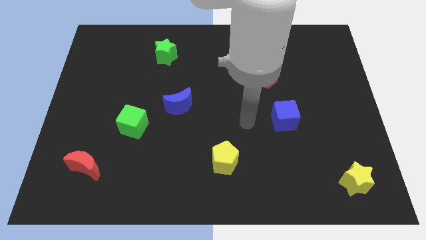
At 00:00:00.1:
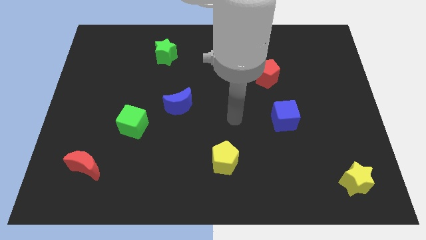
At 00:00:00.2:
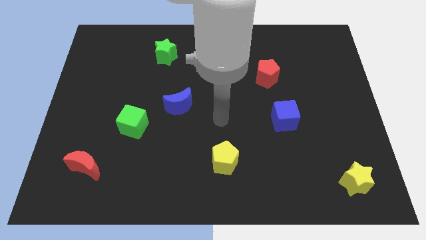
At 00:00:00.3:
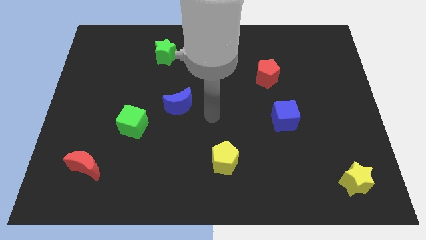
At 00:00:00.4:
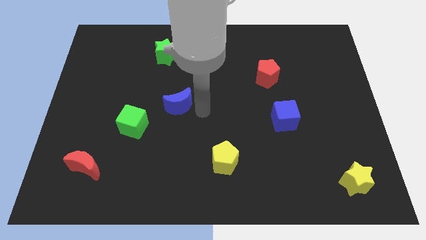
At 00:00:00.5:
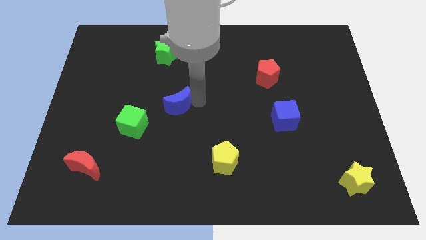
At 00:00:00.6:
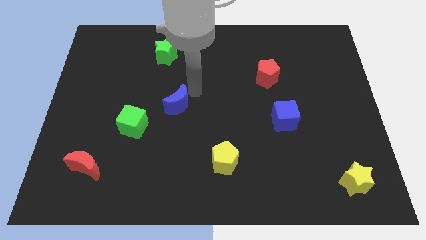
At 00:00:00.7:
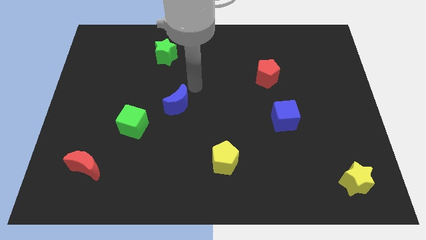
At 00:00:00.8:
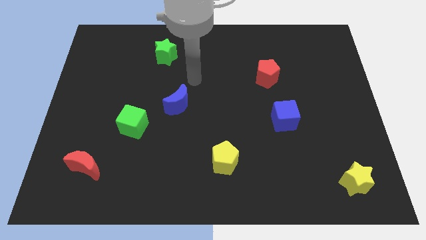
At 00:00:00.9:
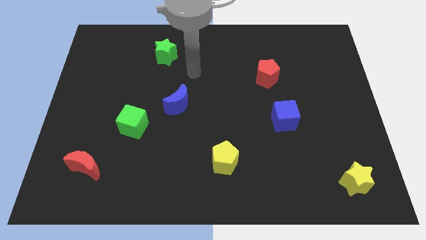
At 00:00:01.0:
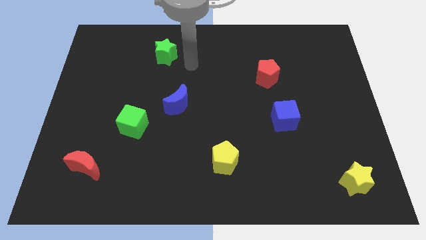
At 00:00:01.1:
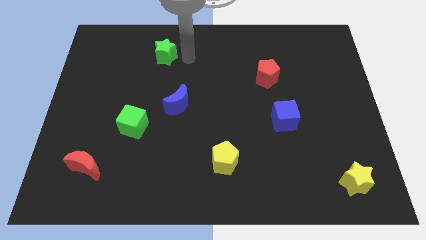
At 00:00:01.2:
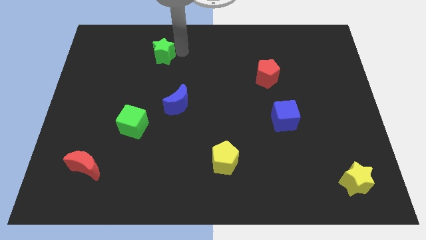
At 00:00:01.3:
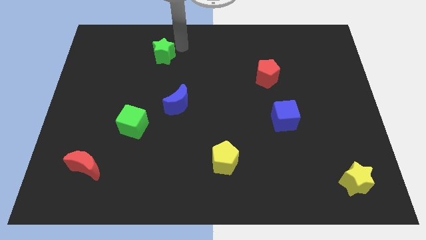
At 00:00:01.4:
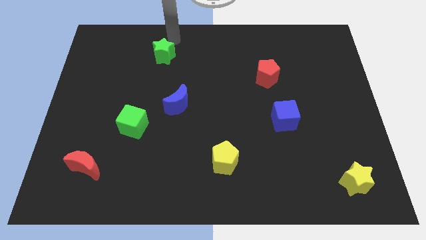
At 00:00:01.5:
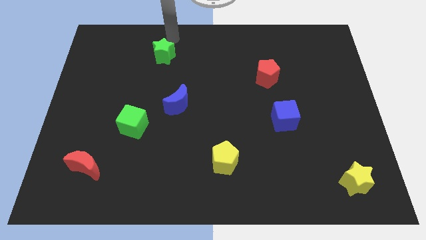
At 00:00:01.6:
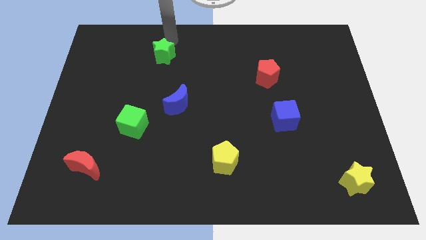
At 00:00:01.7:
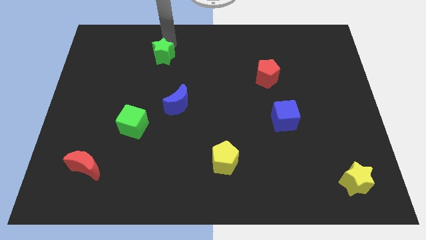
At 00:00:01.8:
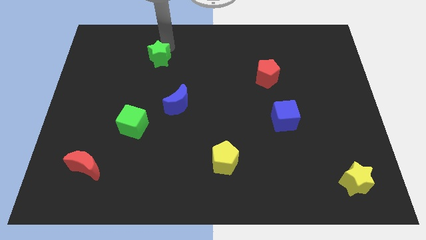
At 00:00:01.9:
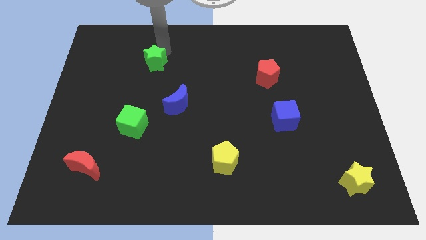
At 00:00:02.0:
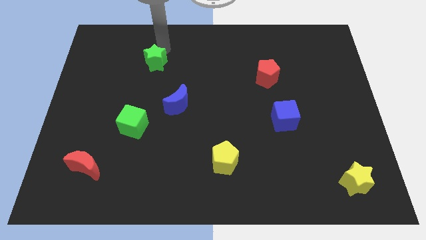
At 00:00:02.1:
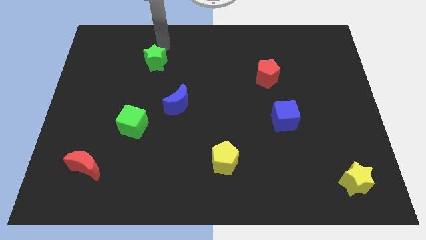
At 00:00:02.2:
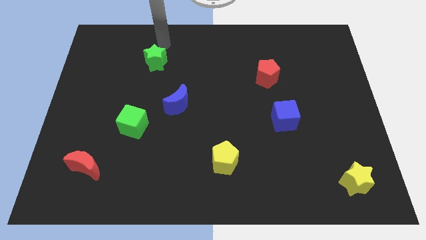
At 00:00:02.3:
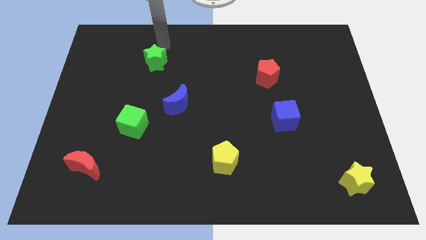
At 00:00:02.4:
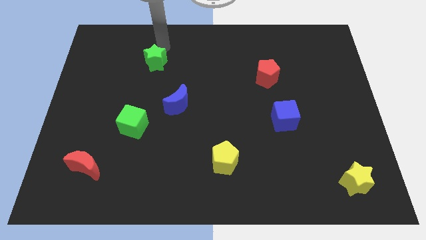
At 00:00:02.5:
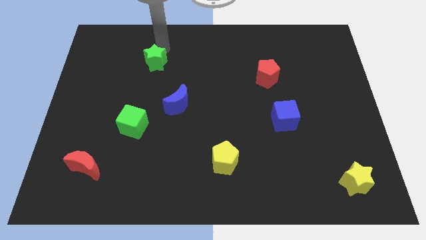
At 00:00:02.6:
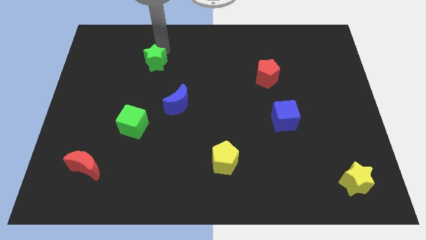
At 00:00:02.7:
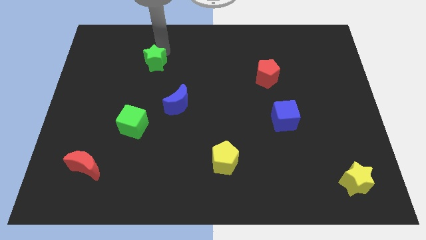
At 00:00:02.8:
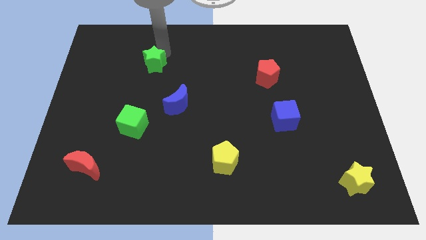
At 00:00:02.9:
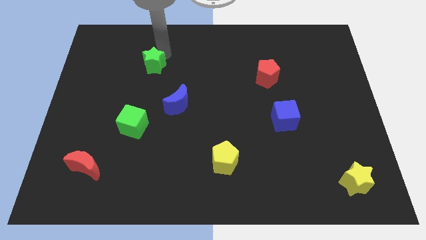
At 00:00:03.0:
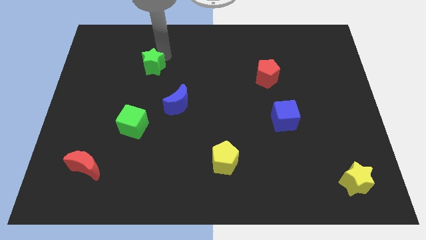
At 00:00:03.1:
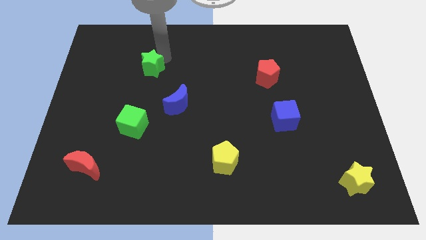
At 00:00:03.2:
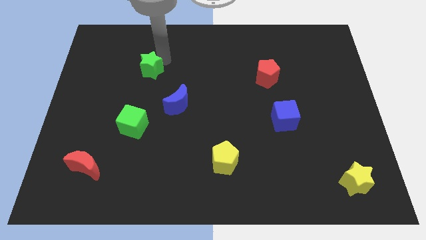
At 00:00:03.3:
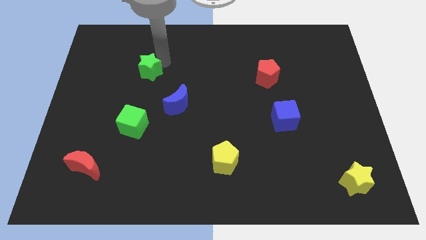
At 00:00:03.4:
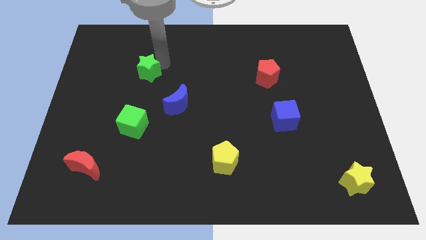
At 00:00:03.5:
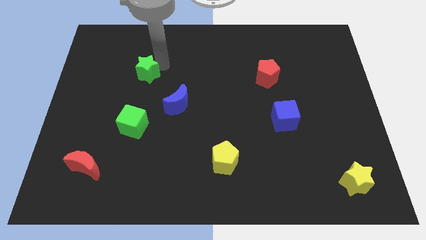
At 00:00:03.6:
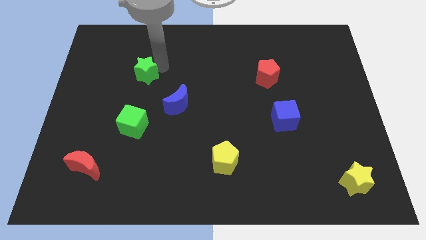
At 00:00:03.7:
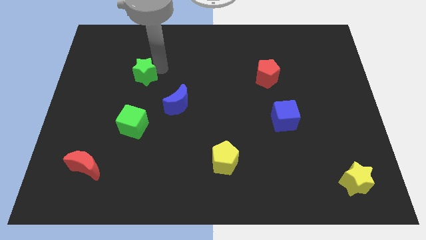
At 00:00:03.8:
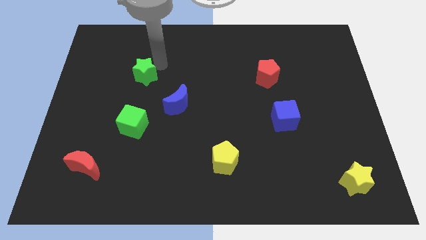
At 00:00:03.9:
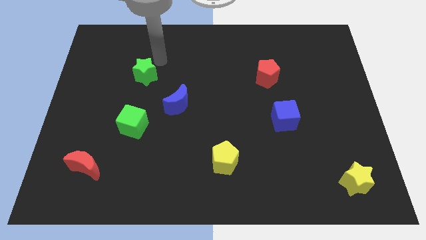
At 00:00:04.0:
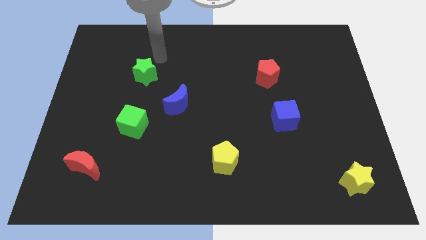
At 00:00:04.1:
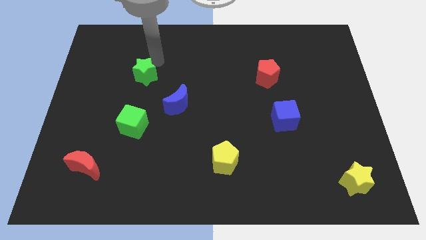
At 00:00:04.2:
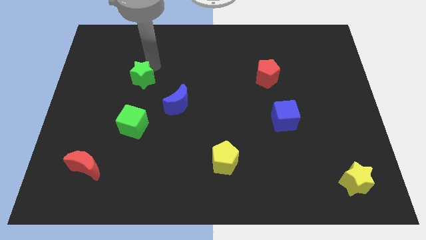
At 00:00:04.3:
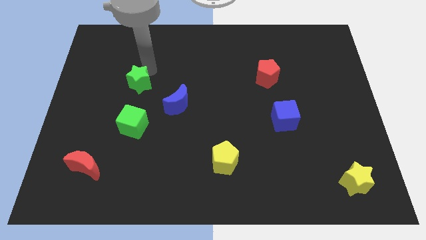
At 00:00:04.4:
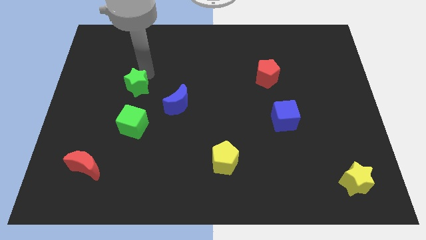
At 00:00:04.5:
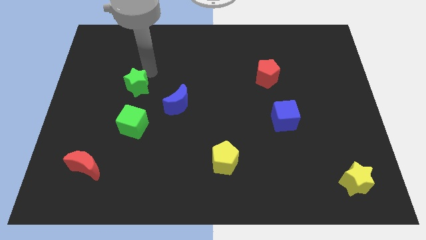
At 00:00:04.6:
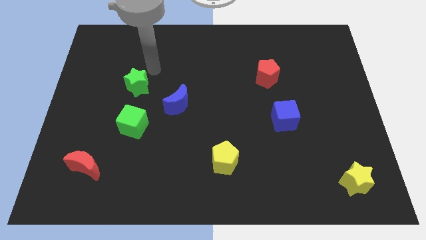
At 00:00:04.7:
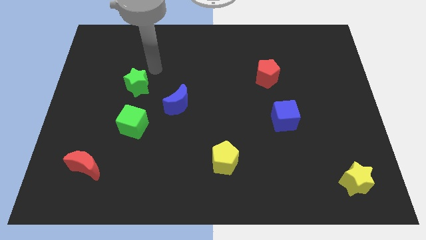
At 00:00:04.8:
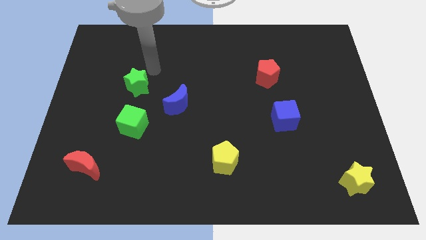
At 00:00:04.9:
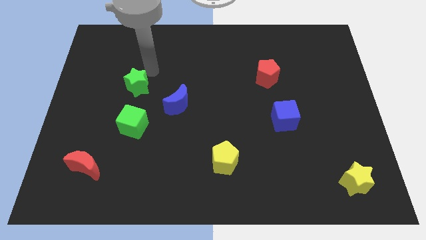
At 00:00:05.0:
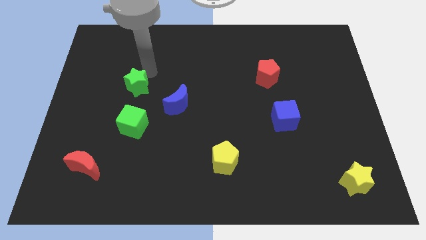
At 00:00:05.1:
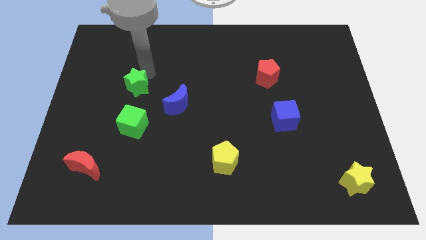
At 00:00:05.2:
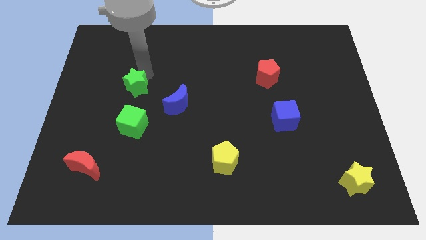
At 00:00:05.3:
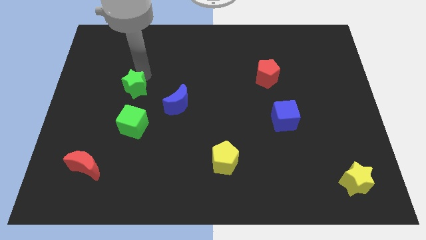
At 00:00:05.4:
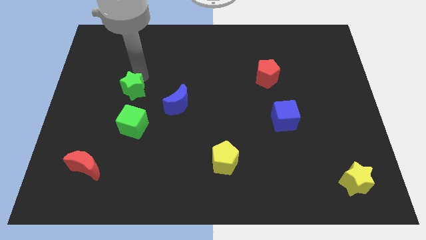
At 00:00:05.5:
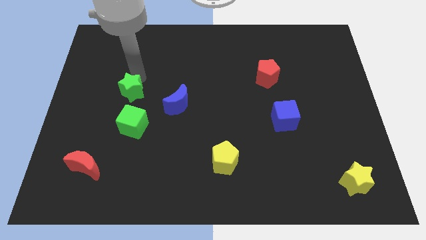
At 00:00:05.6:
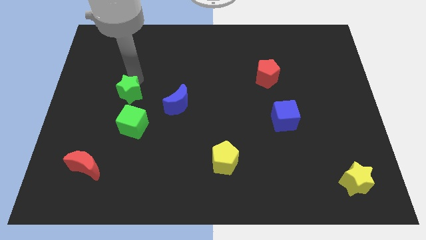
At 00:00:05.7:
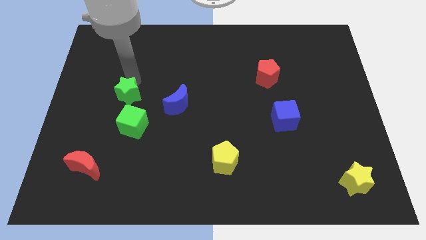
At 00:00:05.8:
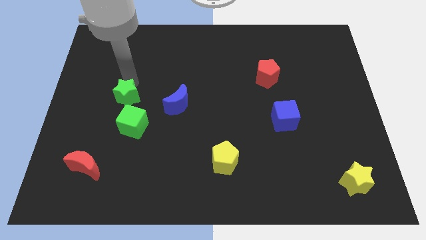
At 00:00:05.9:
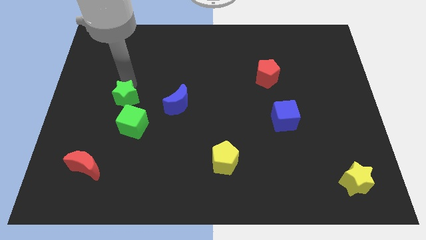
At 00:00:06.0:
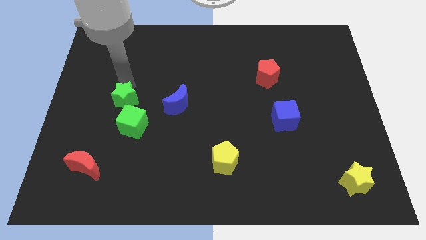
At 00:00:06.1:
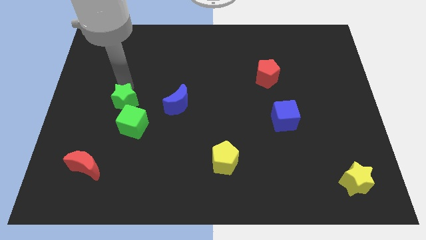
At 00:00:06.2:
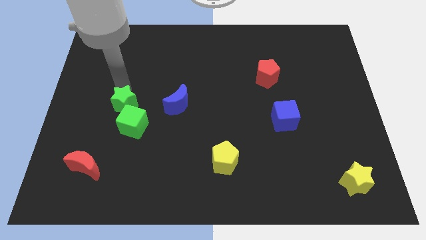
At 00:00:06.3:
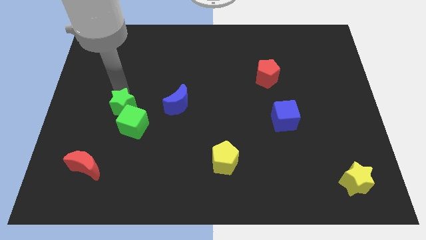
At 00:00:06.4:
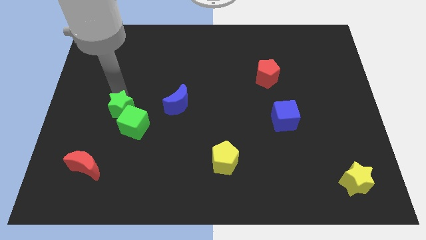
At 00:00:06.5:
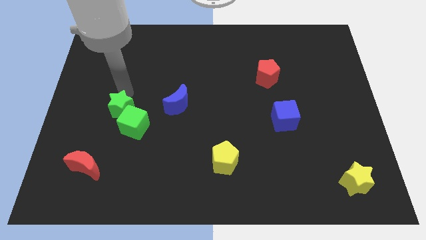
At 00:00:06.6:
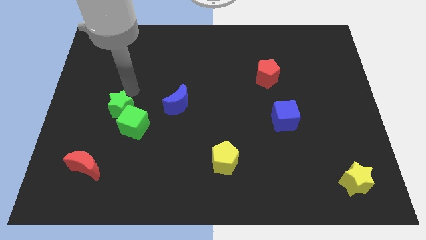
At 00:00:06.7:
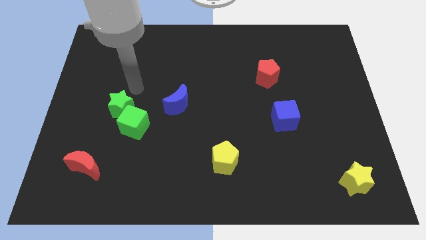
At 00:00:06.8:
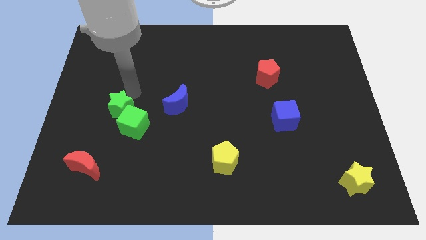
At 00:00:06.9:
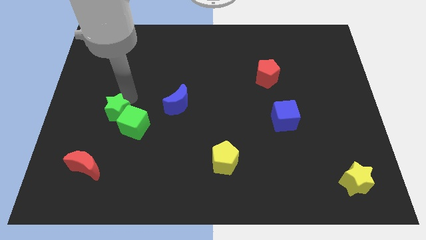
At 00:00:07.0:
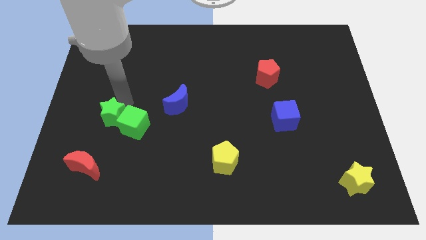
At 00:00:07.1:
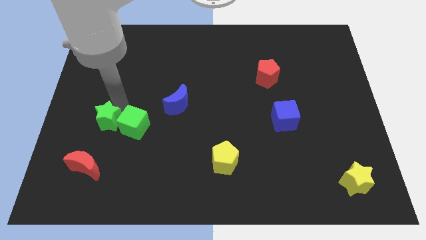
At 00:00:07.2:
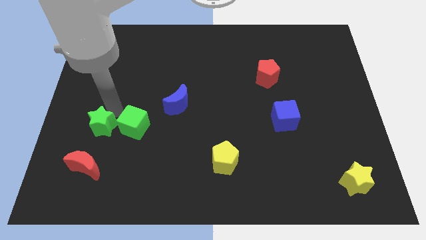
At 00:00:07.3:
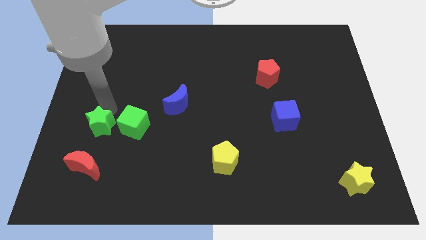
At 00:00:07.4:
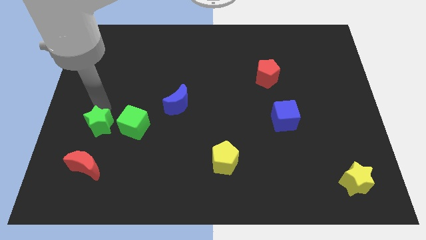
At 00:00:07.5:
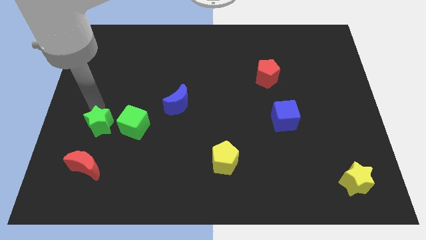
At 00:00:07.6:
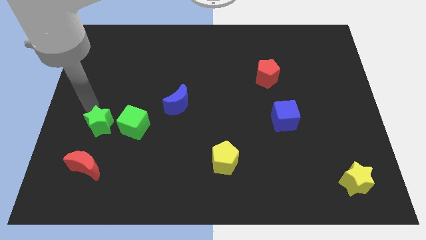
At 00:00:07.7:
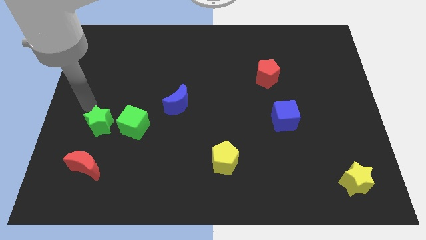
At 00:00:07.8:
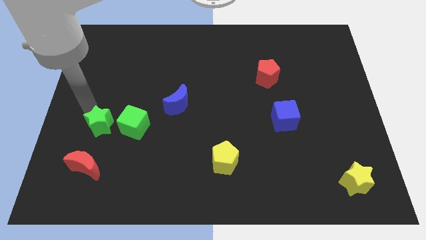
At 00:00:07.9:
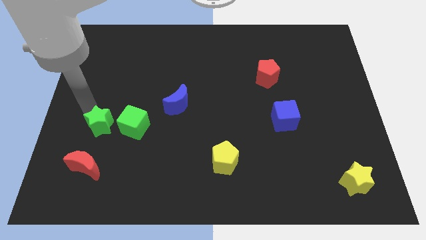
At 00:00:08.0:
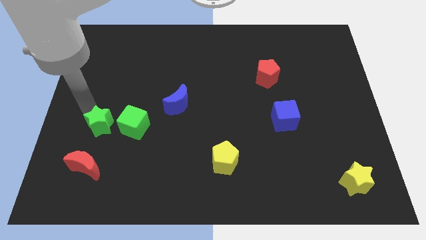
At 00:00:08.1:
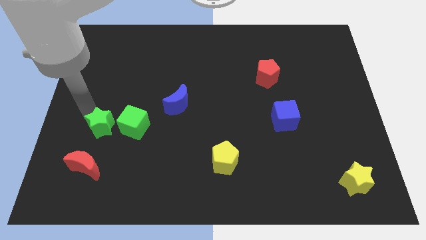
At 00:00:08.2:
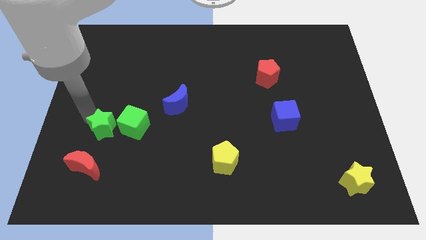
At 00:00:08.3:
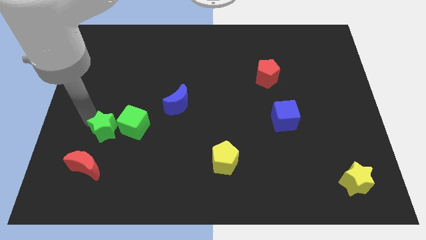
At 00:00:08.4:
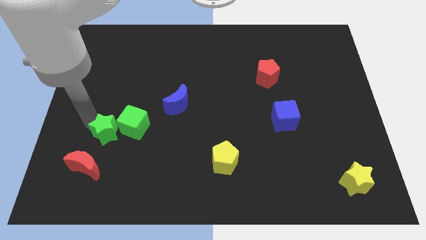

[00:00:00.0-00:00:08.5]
move the green star diagonally up and to the right of the red moon
